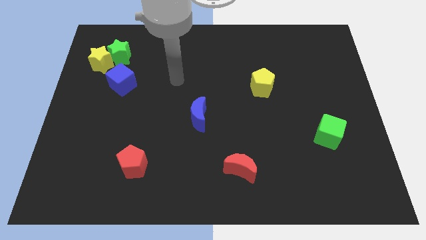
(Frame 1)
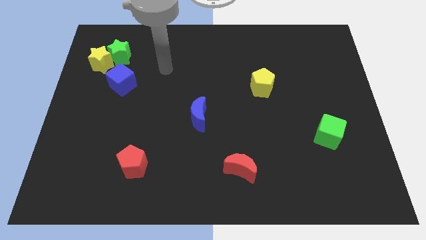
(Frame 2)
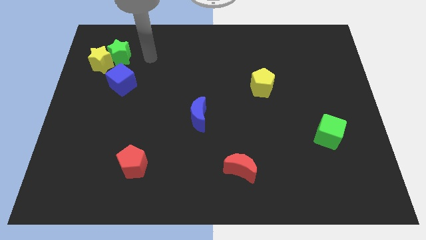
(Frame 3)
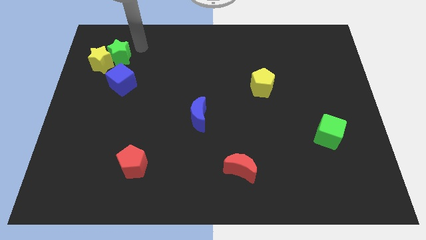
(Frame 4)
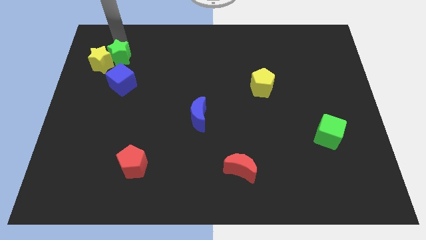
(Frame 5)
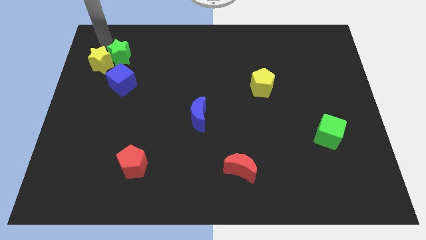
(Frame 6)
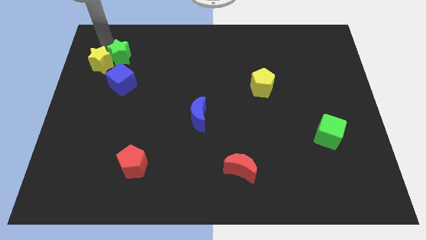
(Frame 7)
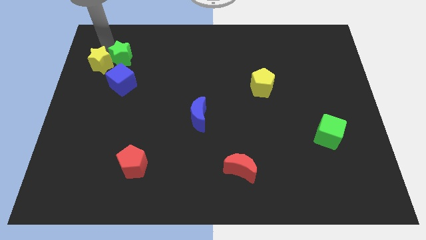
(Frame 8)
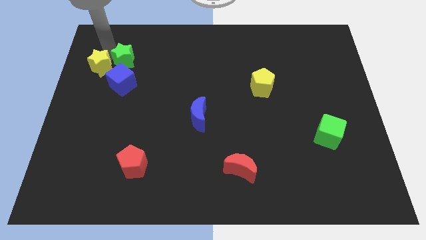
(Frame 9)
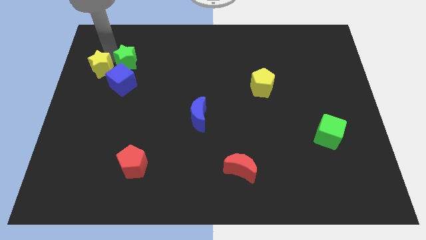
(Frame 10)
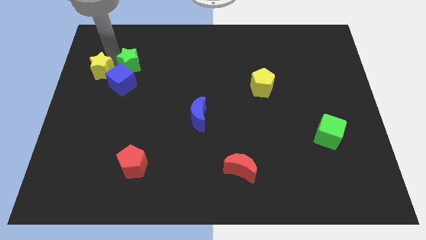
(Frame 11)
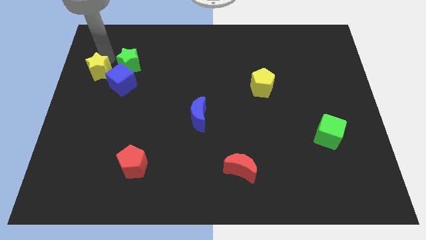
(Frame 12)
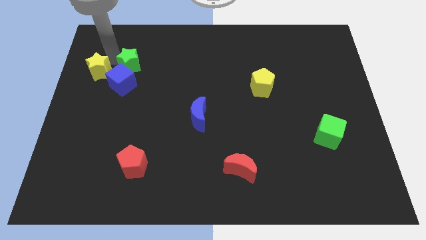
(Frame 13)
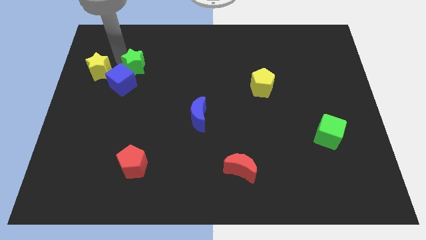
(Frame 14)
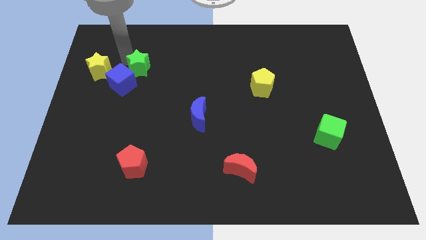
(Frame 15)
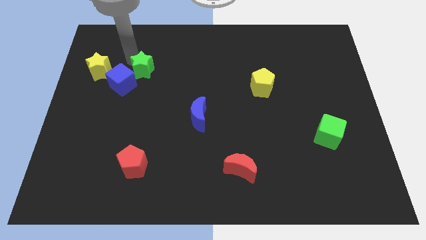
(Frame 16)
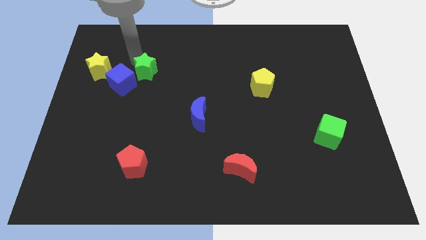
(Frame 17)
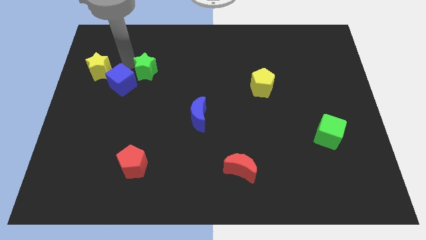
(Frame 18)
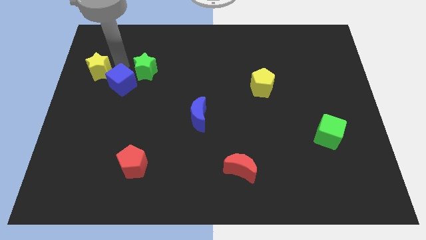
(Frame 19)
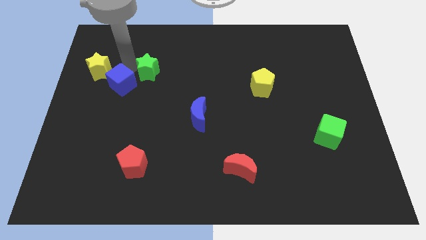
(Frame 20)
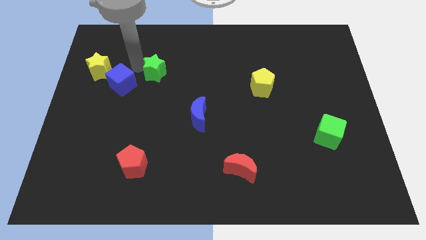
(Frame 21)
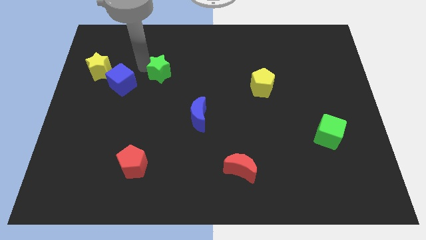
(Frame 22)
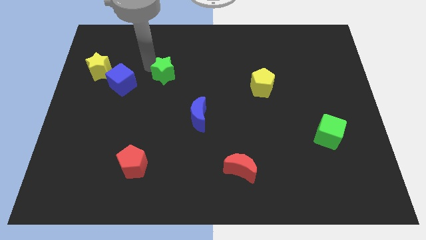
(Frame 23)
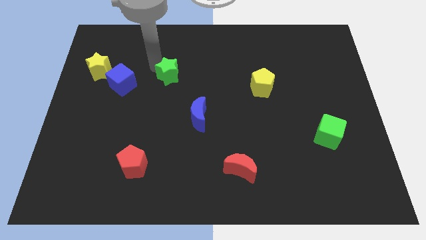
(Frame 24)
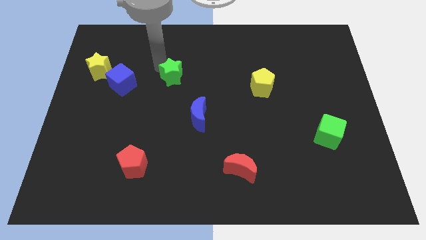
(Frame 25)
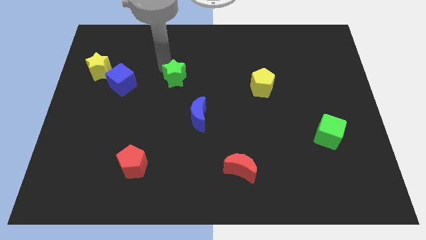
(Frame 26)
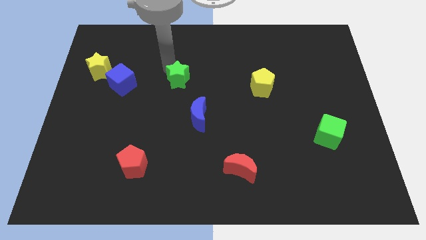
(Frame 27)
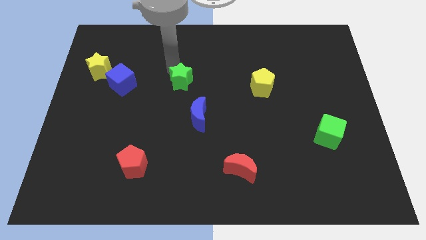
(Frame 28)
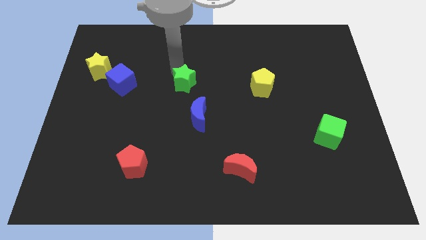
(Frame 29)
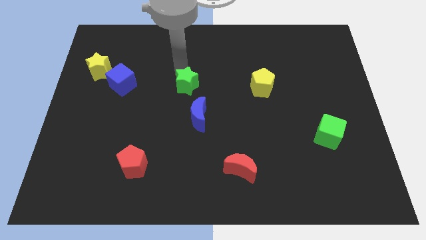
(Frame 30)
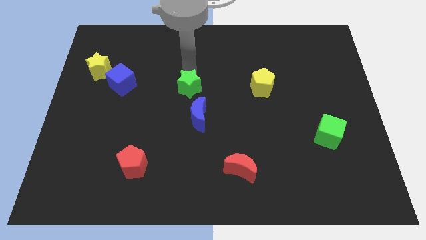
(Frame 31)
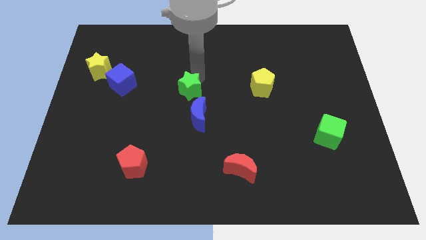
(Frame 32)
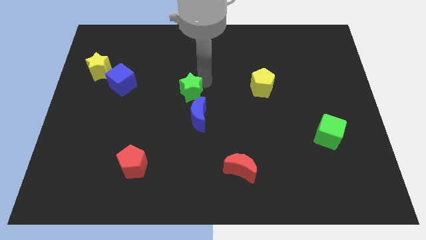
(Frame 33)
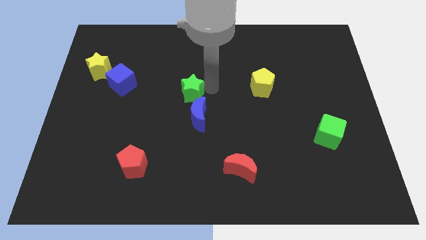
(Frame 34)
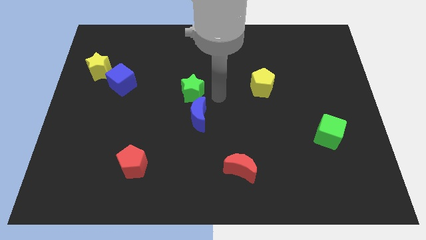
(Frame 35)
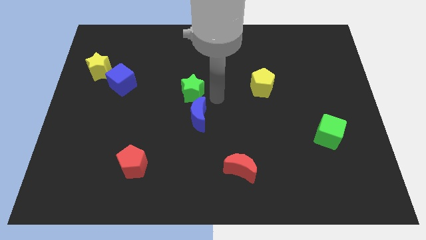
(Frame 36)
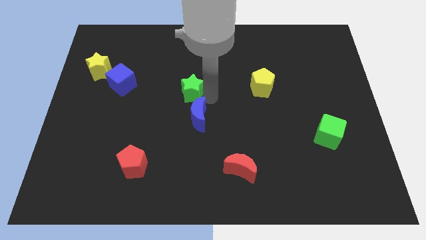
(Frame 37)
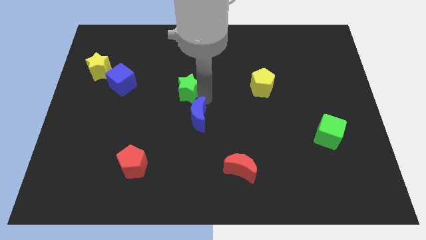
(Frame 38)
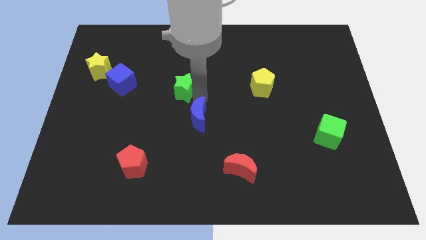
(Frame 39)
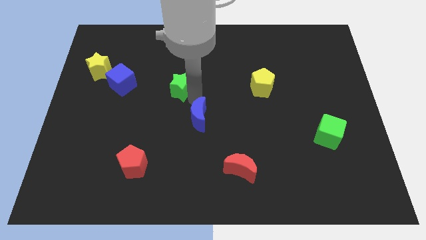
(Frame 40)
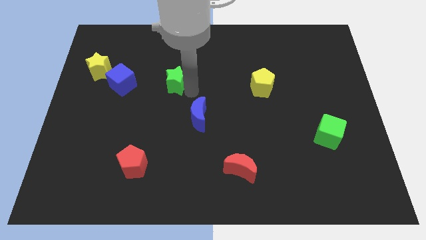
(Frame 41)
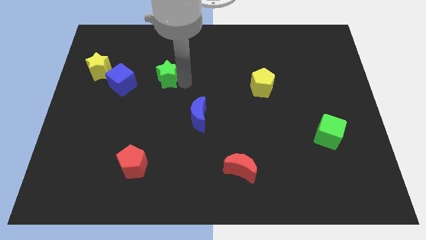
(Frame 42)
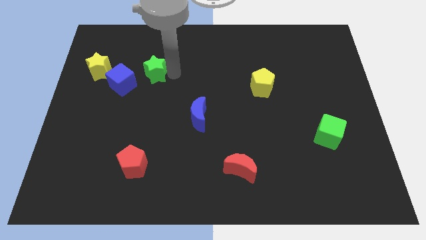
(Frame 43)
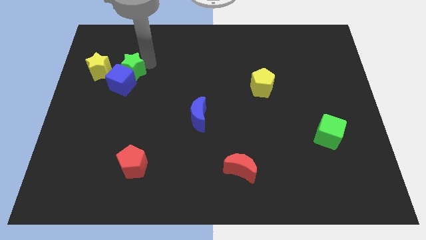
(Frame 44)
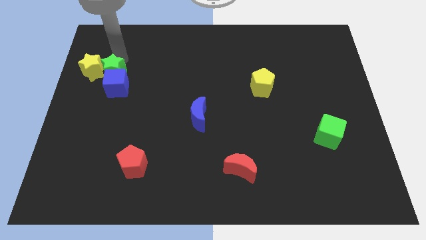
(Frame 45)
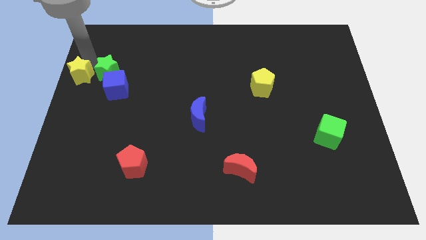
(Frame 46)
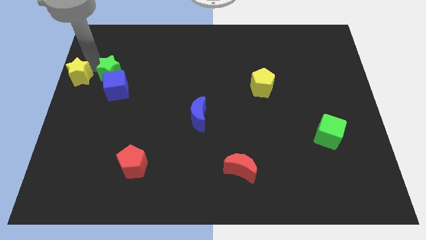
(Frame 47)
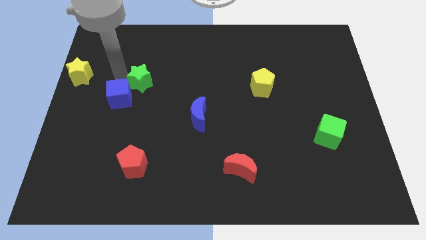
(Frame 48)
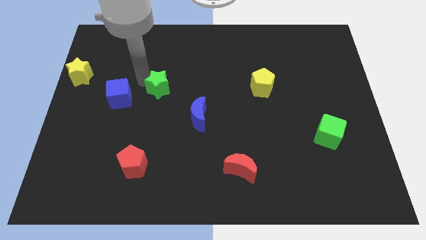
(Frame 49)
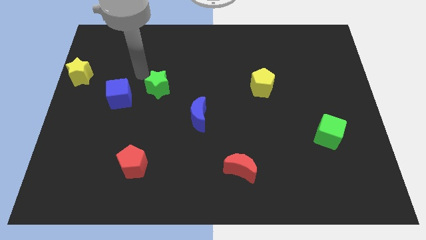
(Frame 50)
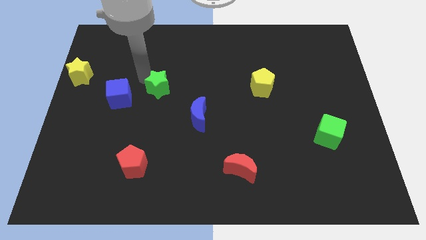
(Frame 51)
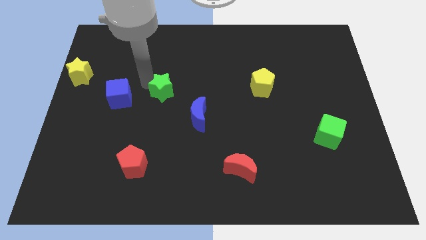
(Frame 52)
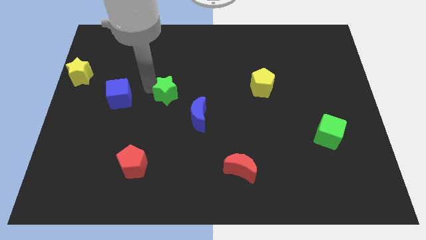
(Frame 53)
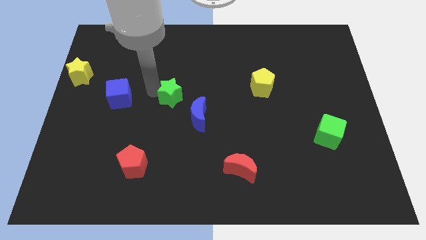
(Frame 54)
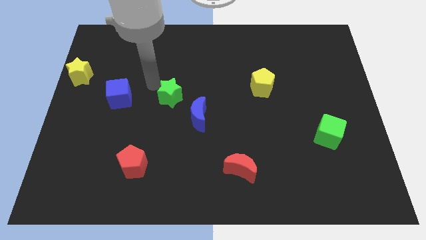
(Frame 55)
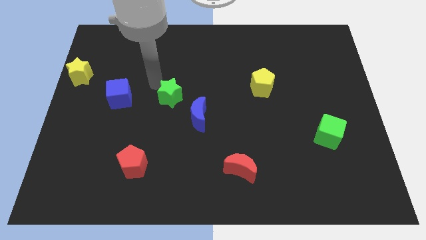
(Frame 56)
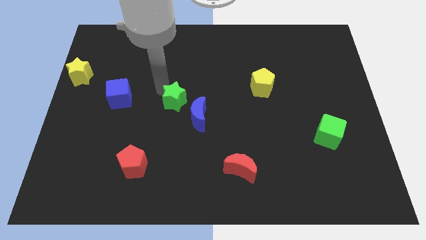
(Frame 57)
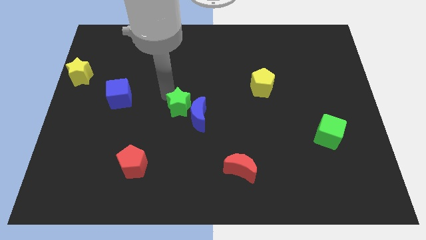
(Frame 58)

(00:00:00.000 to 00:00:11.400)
slide the green star next to the blue moon

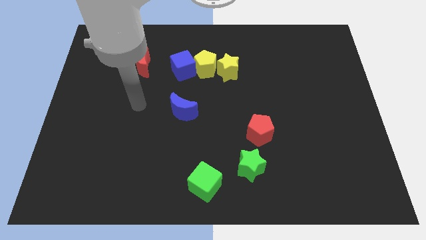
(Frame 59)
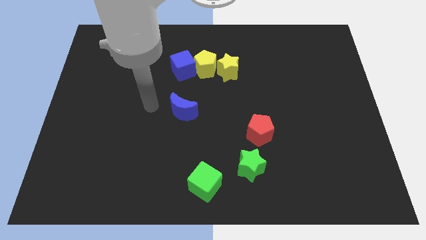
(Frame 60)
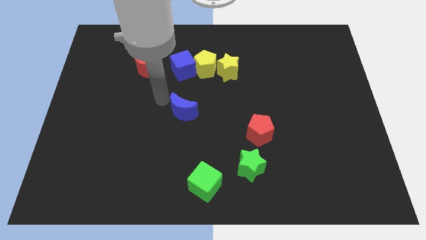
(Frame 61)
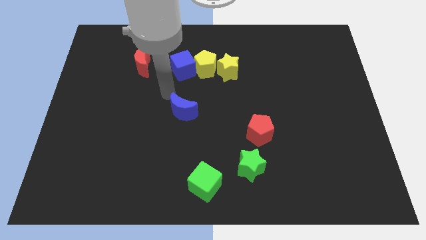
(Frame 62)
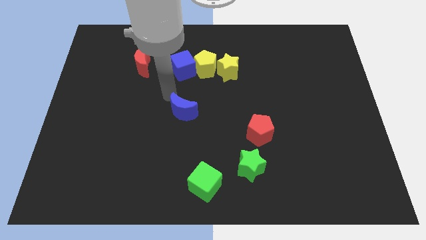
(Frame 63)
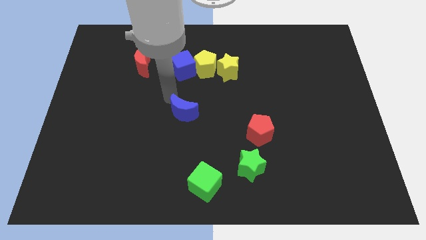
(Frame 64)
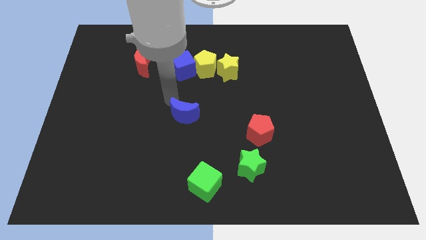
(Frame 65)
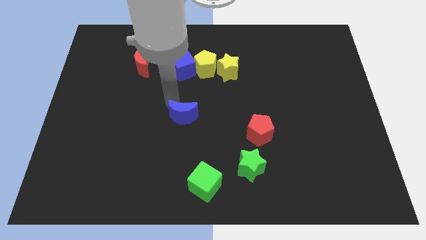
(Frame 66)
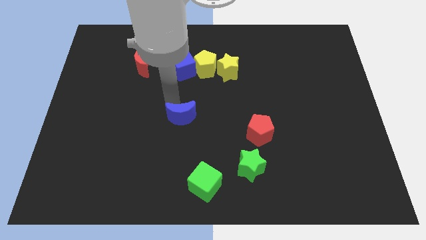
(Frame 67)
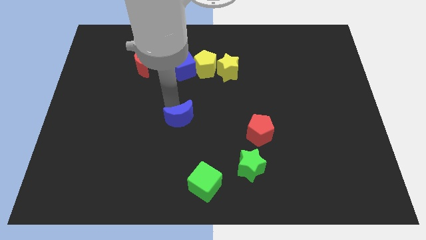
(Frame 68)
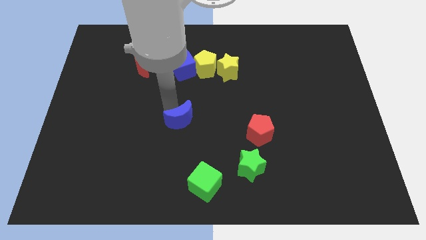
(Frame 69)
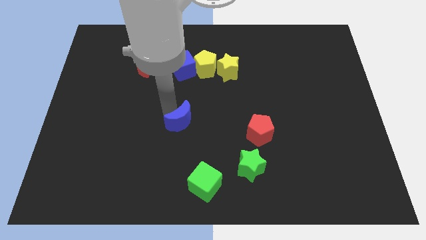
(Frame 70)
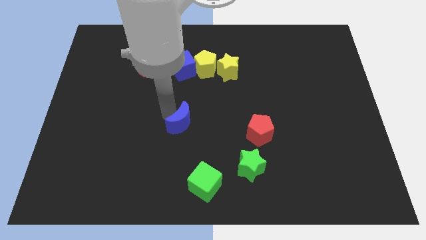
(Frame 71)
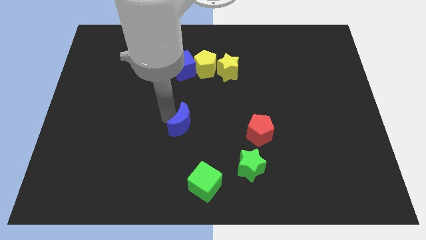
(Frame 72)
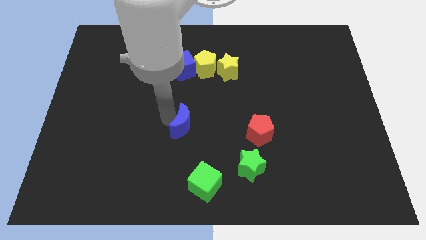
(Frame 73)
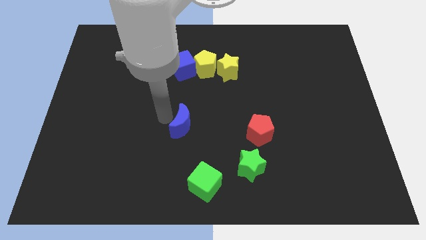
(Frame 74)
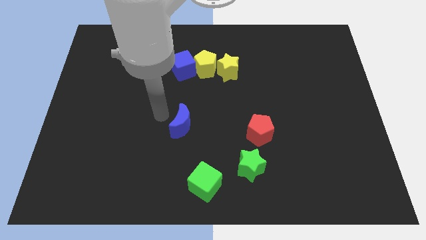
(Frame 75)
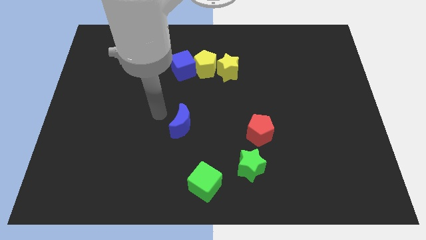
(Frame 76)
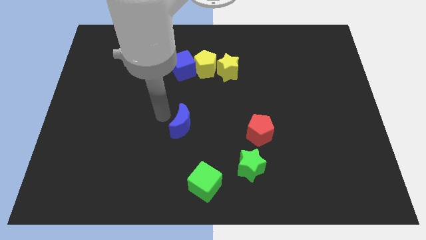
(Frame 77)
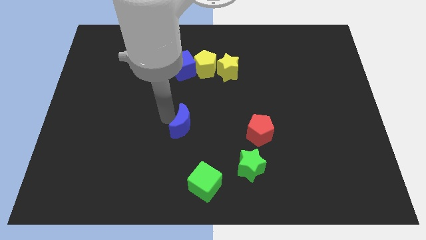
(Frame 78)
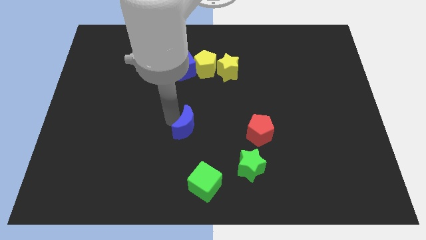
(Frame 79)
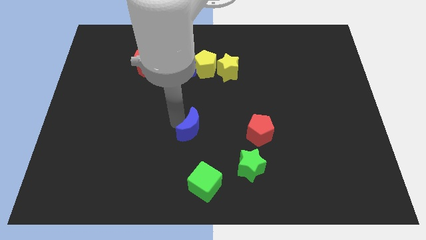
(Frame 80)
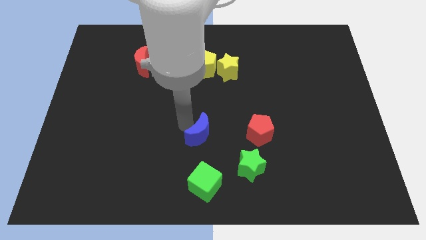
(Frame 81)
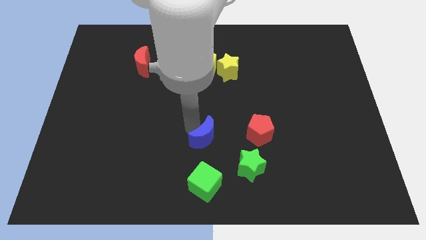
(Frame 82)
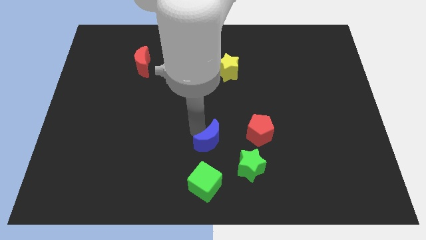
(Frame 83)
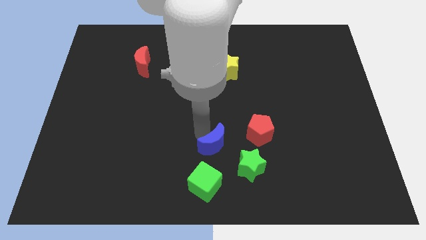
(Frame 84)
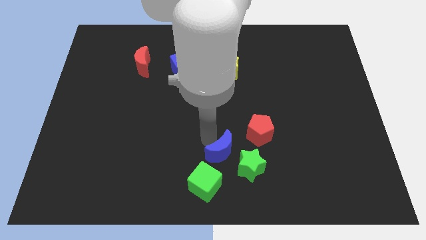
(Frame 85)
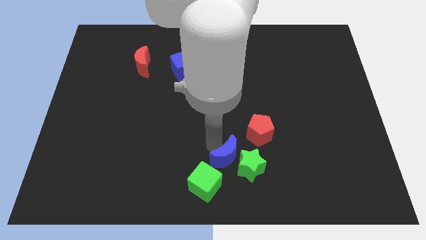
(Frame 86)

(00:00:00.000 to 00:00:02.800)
push the blue moon close to the green star
